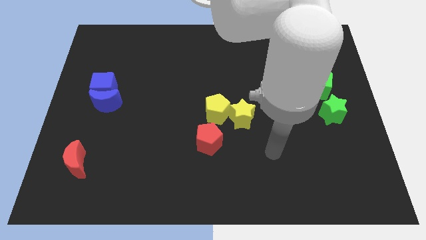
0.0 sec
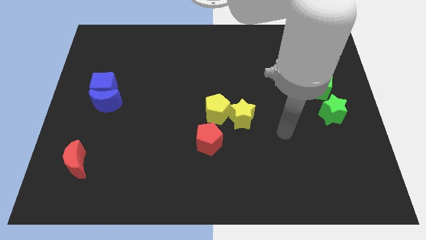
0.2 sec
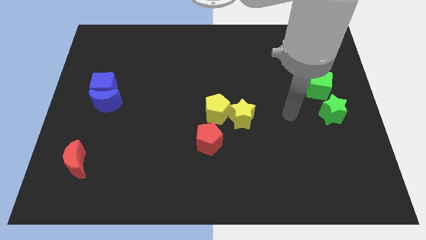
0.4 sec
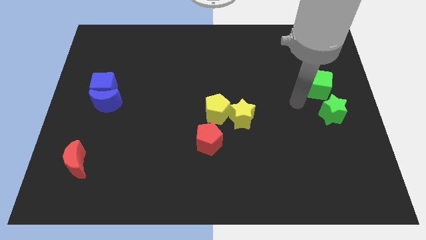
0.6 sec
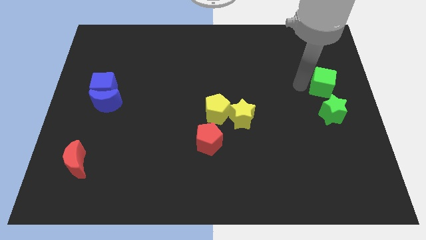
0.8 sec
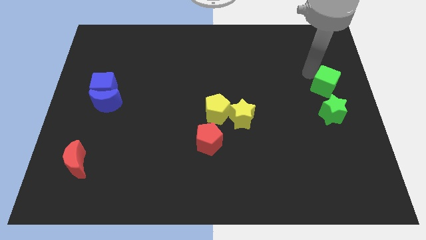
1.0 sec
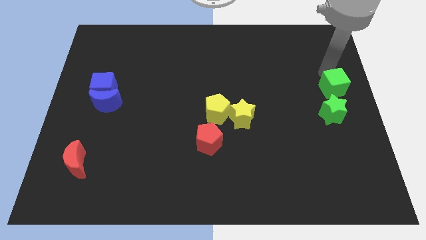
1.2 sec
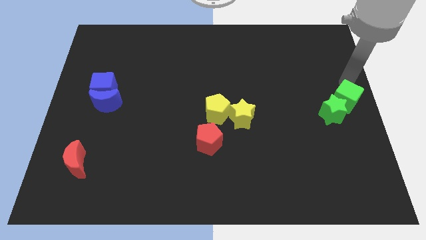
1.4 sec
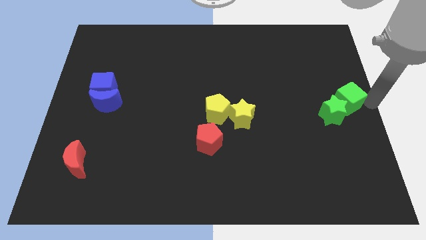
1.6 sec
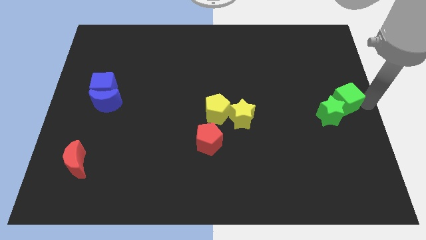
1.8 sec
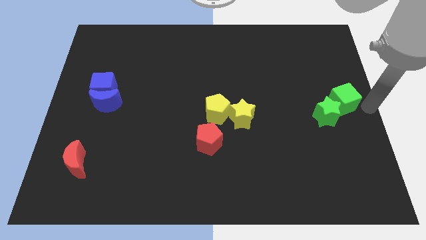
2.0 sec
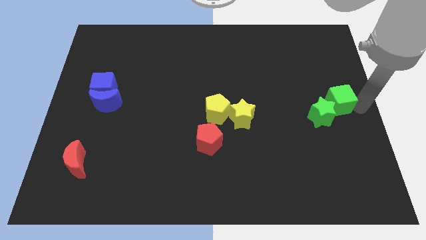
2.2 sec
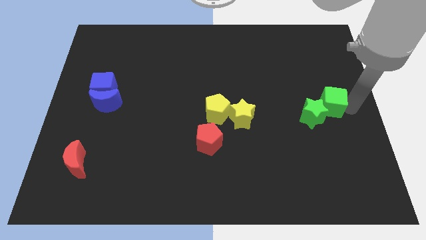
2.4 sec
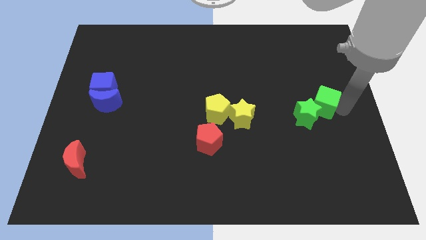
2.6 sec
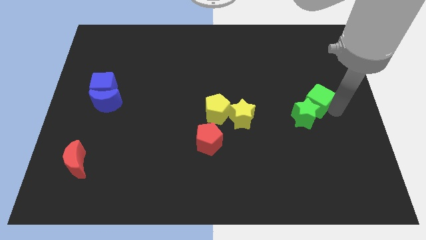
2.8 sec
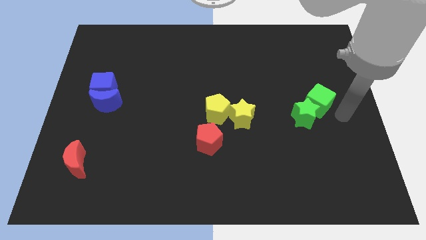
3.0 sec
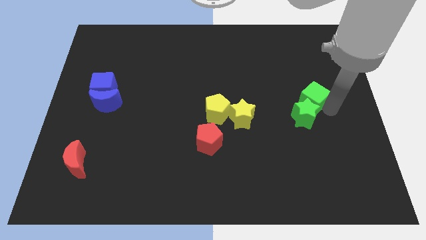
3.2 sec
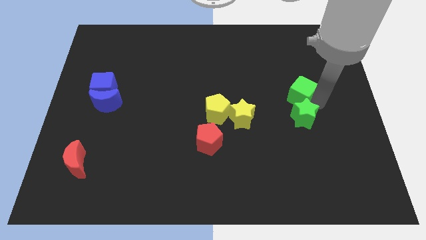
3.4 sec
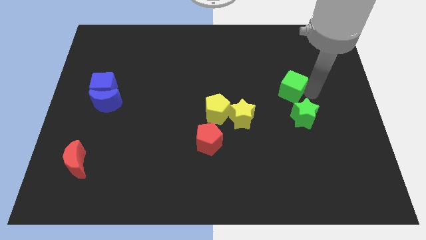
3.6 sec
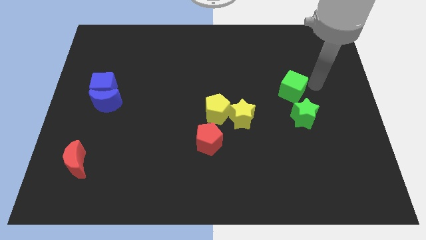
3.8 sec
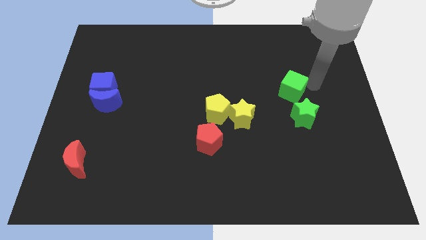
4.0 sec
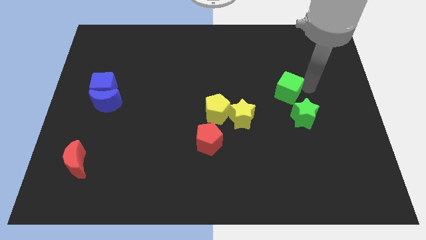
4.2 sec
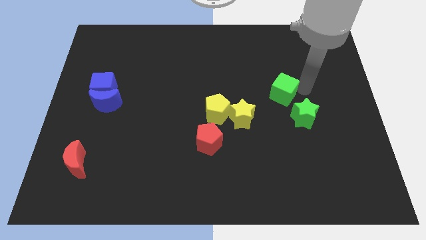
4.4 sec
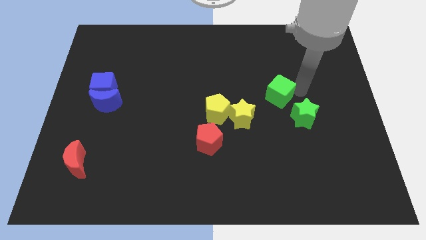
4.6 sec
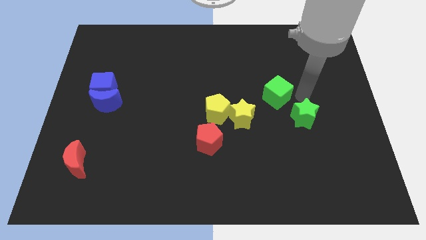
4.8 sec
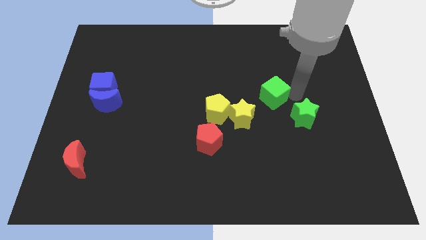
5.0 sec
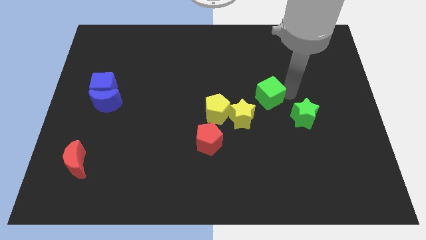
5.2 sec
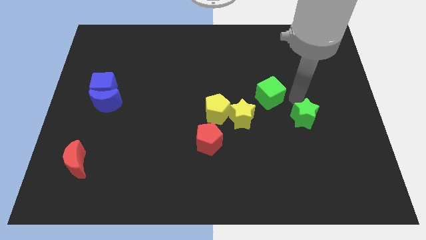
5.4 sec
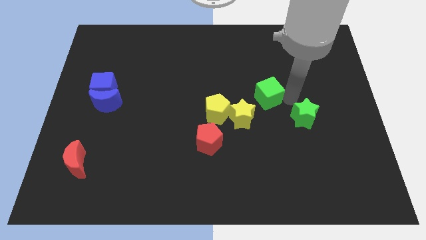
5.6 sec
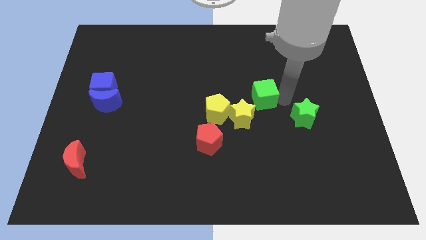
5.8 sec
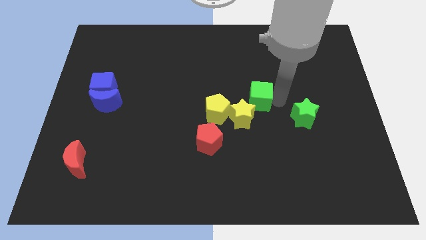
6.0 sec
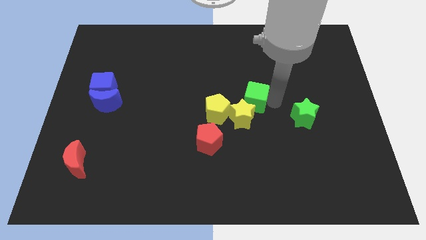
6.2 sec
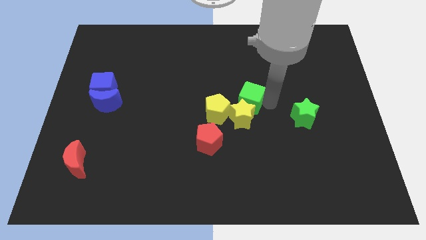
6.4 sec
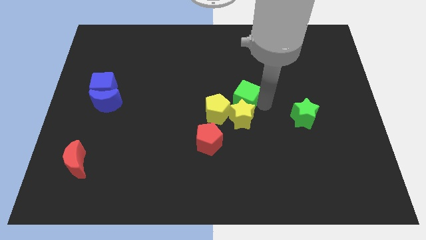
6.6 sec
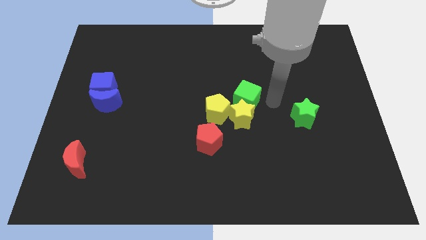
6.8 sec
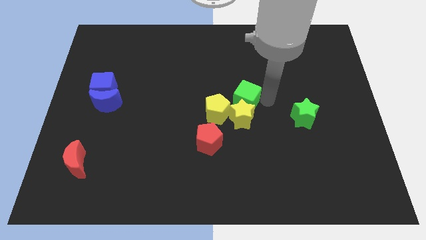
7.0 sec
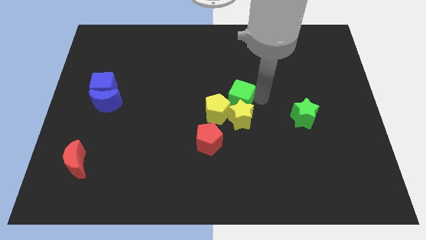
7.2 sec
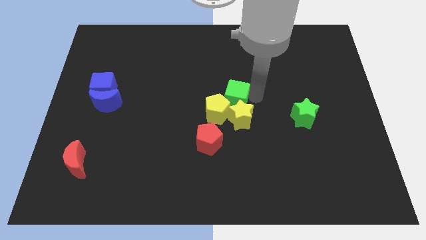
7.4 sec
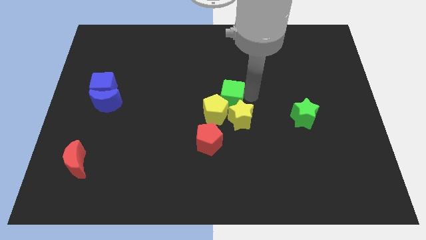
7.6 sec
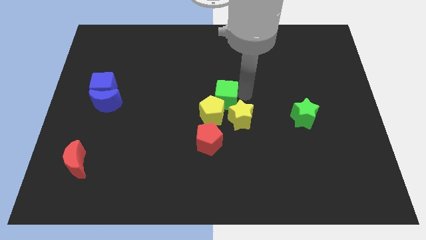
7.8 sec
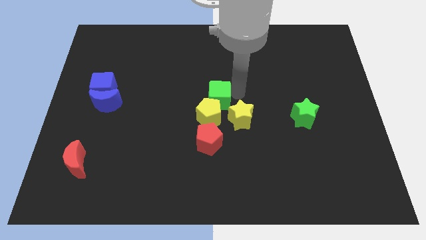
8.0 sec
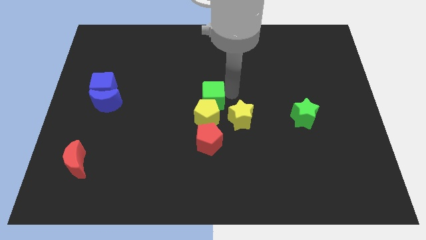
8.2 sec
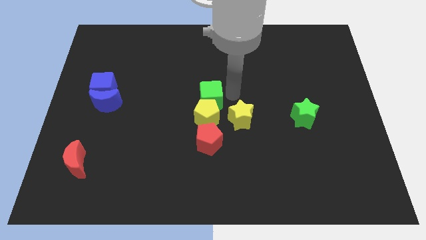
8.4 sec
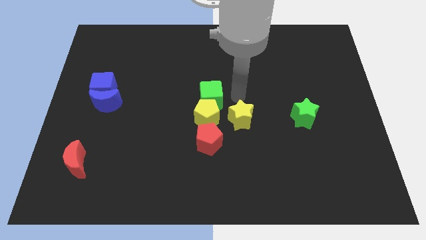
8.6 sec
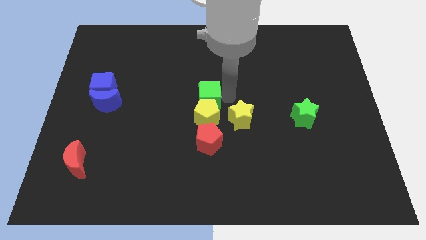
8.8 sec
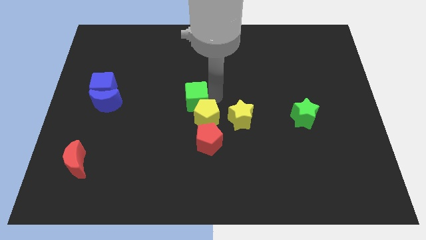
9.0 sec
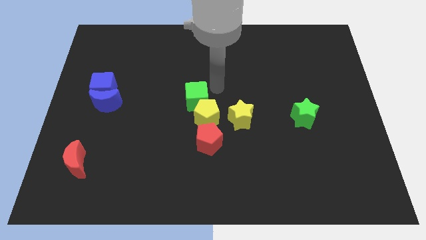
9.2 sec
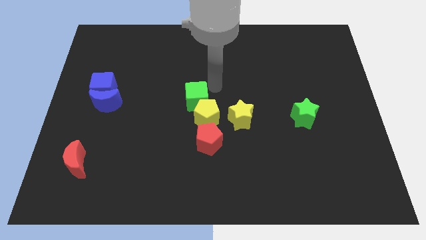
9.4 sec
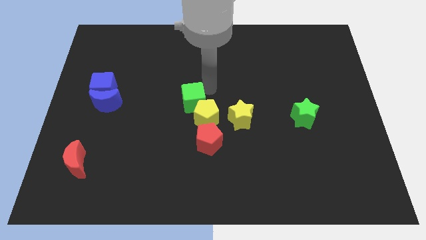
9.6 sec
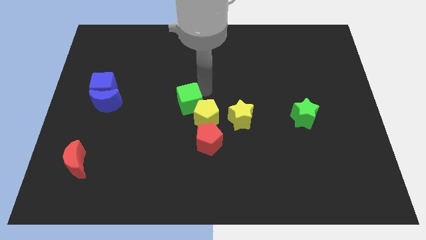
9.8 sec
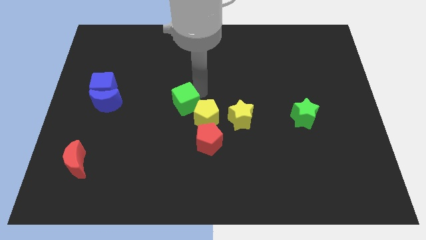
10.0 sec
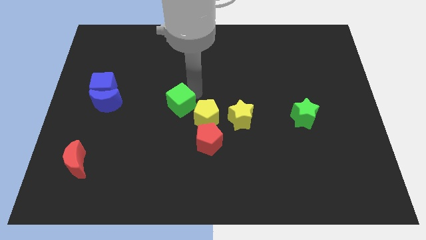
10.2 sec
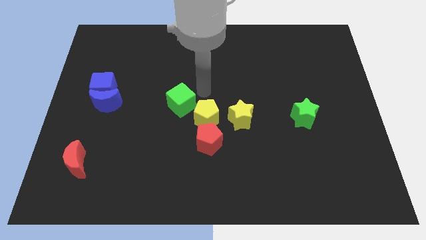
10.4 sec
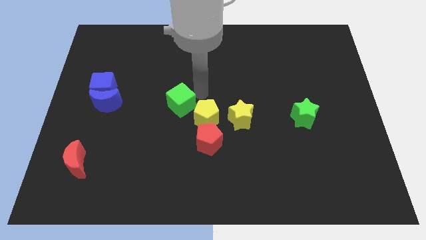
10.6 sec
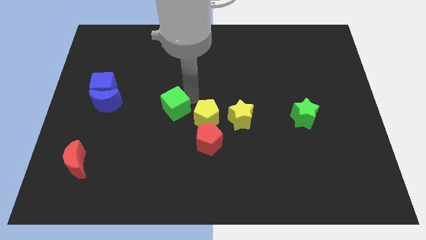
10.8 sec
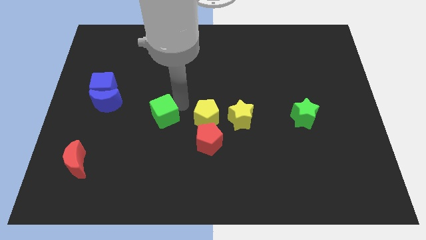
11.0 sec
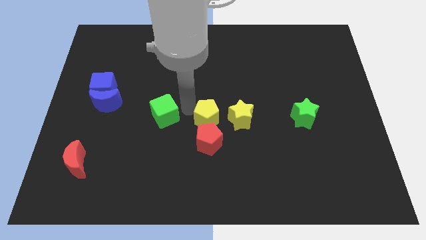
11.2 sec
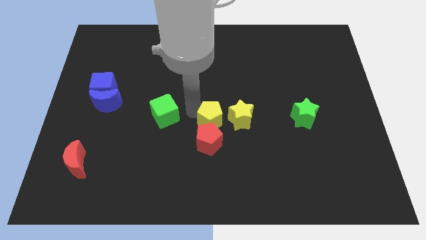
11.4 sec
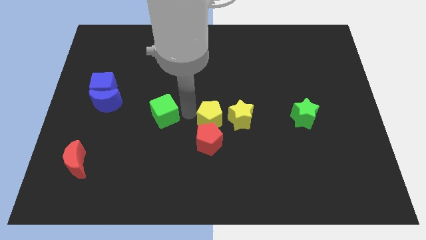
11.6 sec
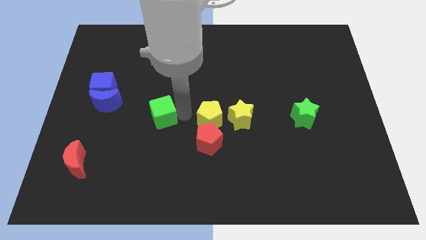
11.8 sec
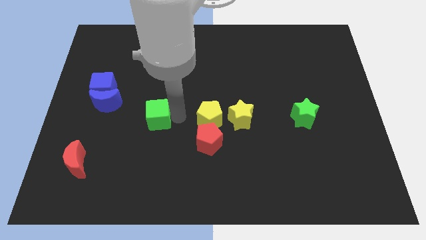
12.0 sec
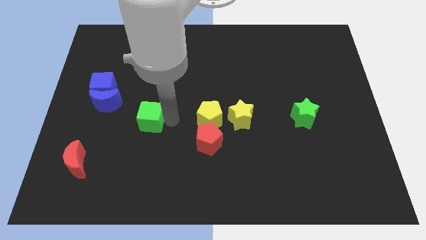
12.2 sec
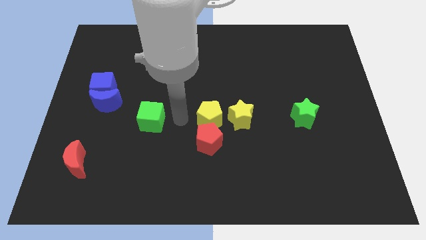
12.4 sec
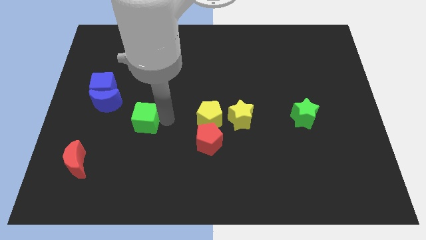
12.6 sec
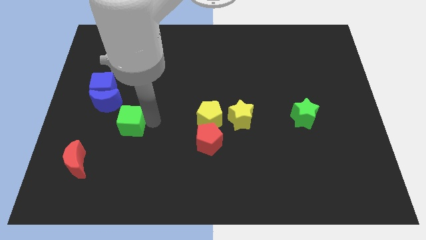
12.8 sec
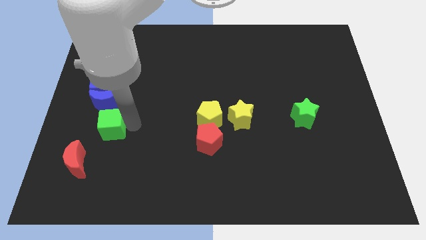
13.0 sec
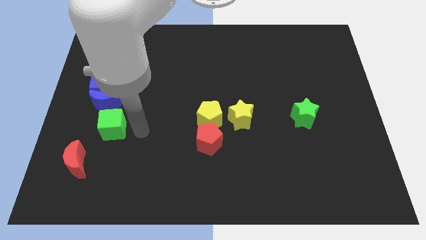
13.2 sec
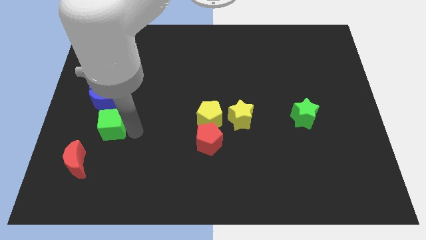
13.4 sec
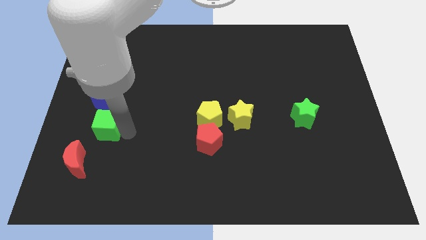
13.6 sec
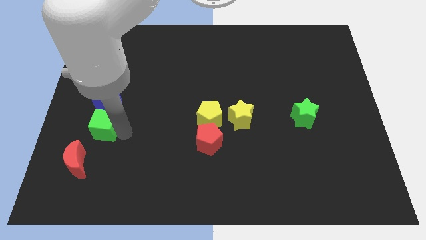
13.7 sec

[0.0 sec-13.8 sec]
slide the green cube above the red moon
